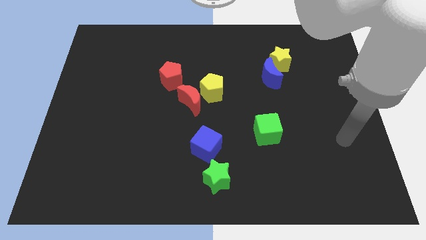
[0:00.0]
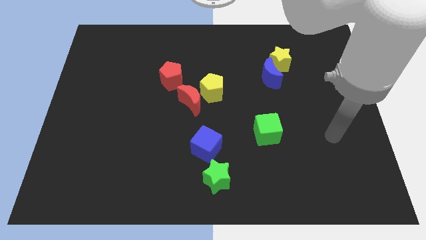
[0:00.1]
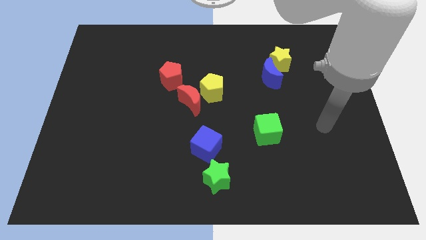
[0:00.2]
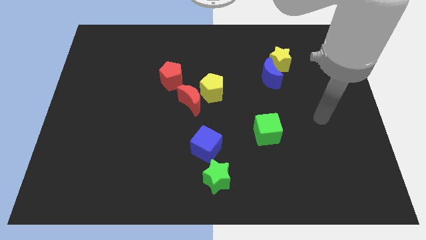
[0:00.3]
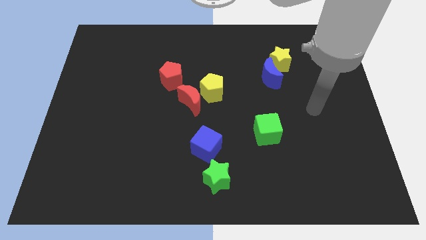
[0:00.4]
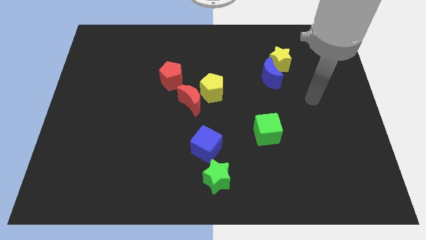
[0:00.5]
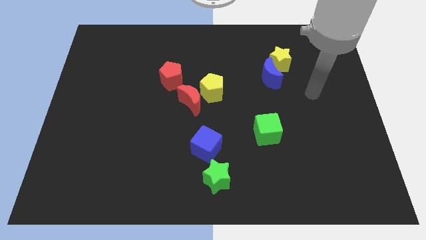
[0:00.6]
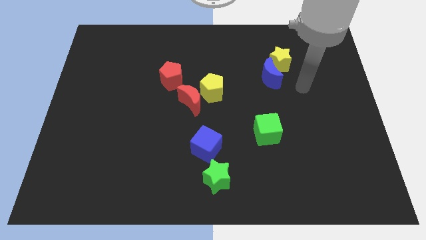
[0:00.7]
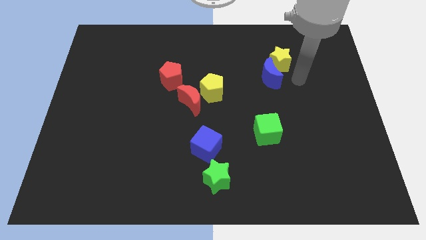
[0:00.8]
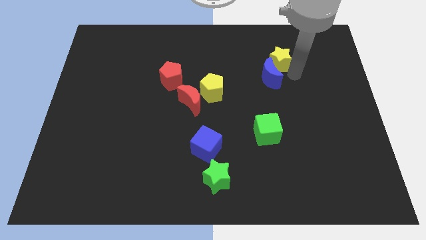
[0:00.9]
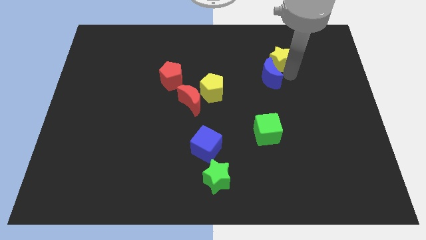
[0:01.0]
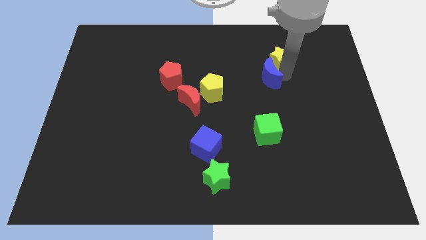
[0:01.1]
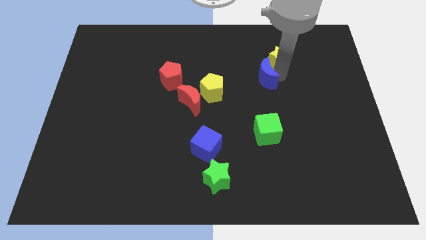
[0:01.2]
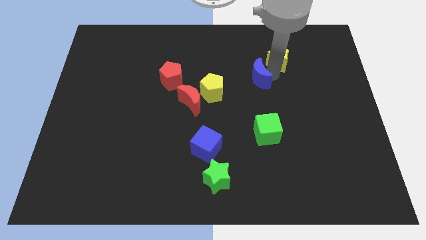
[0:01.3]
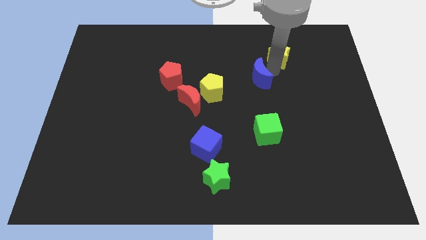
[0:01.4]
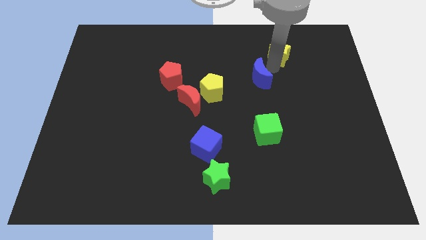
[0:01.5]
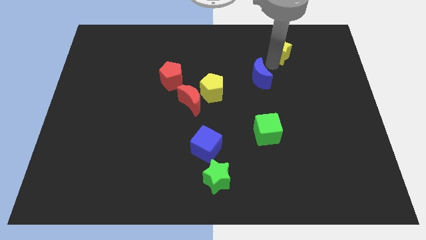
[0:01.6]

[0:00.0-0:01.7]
pull the blue moon apart from the yellow star

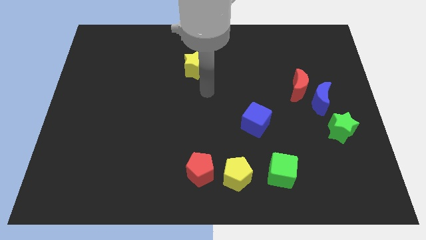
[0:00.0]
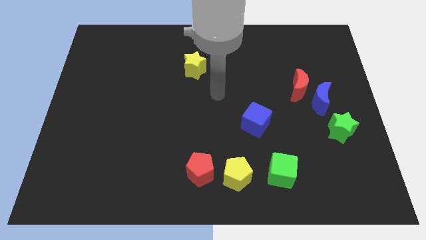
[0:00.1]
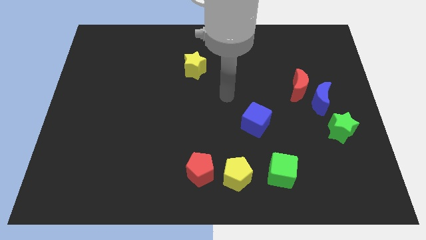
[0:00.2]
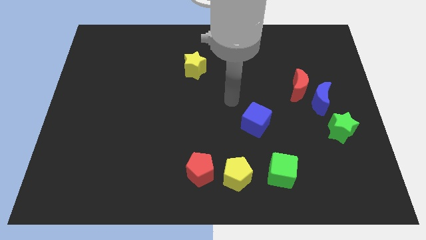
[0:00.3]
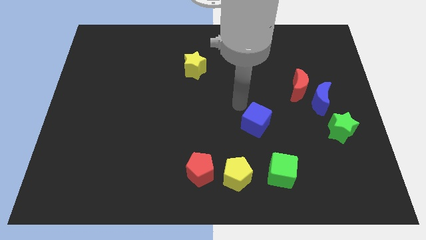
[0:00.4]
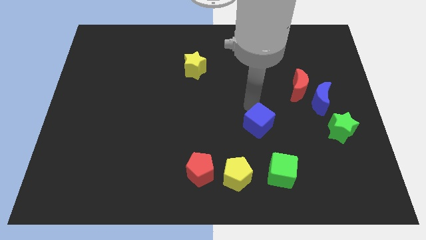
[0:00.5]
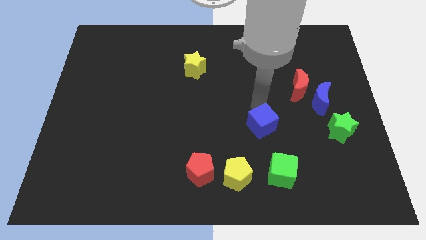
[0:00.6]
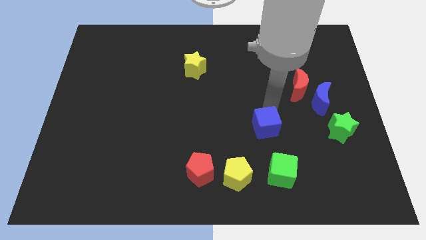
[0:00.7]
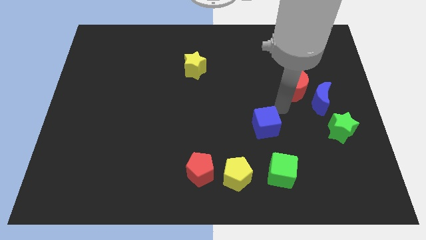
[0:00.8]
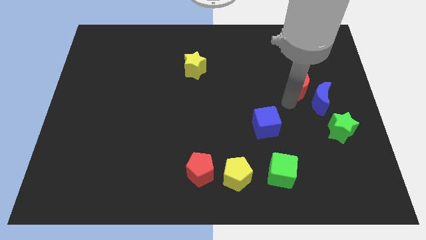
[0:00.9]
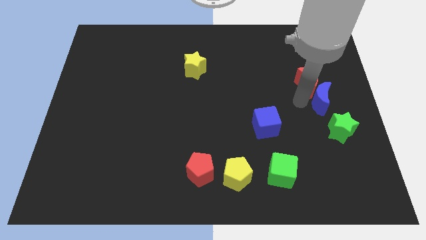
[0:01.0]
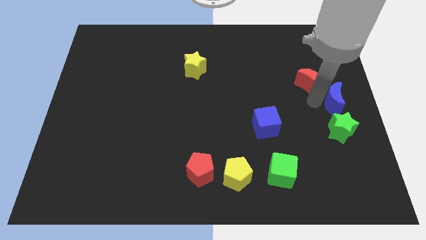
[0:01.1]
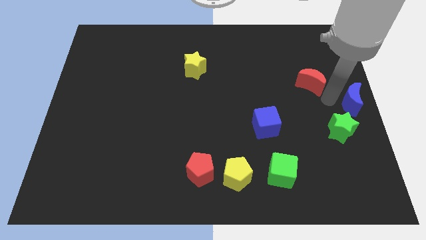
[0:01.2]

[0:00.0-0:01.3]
pull the red moon apart from the blue moon

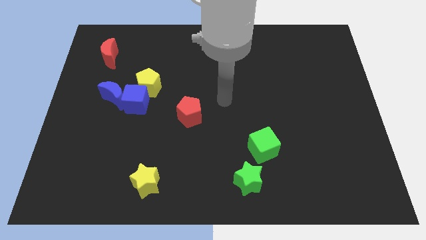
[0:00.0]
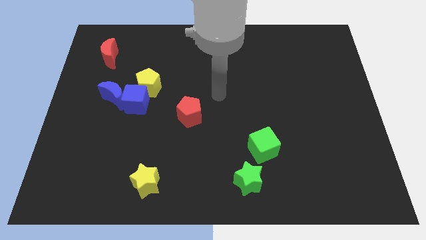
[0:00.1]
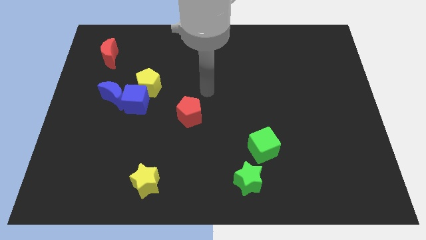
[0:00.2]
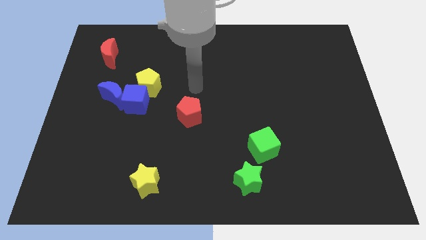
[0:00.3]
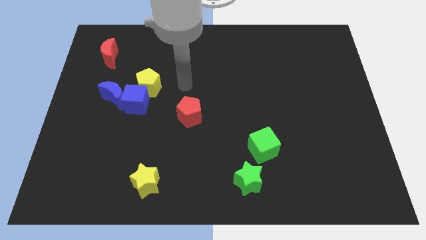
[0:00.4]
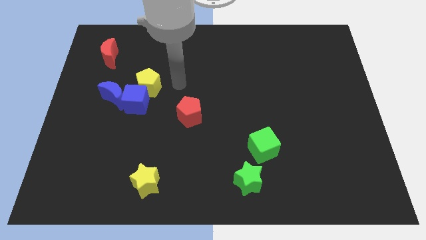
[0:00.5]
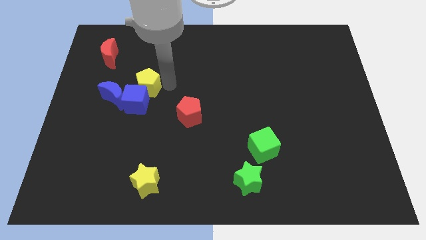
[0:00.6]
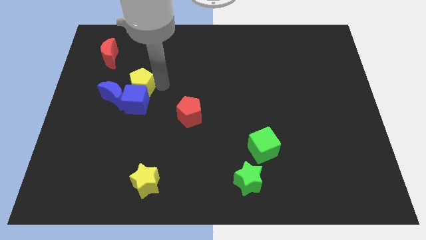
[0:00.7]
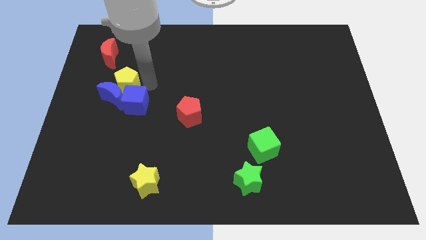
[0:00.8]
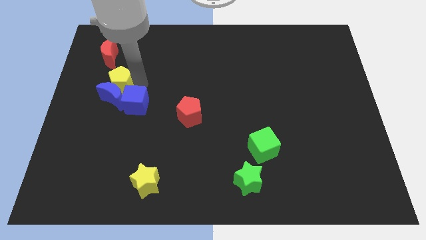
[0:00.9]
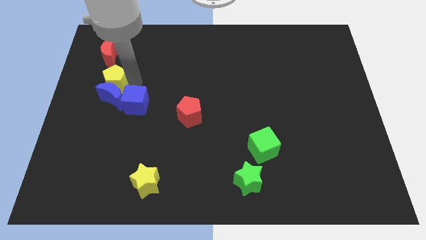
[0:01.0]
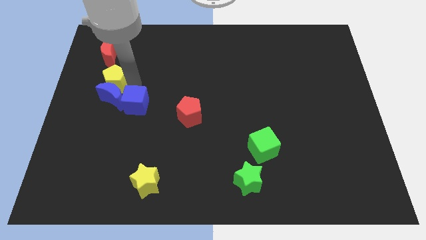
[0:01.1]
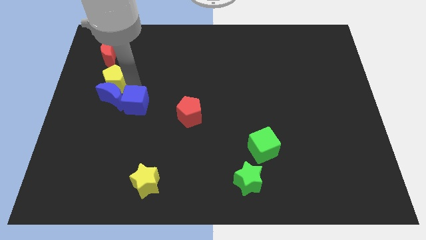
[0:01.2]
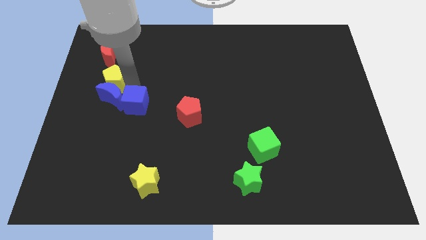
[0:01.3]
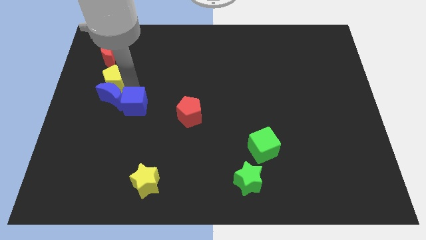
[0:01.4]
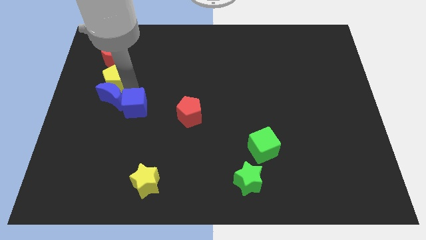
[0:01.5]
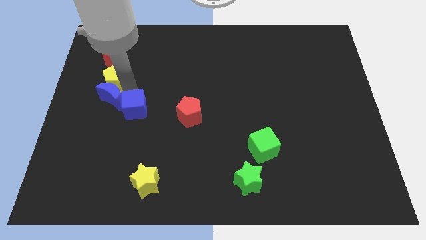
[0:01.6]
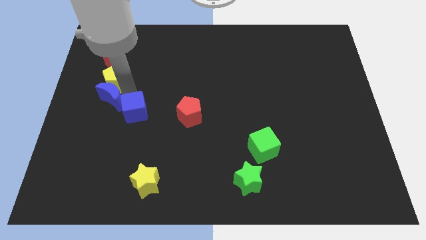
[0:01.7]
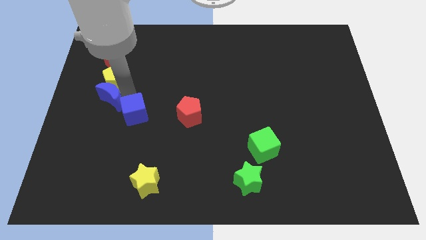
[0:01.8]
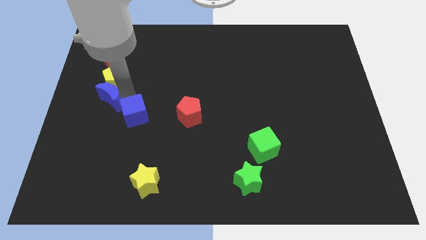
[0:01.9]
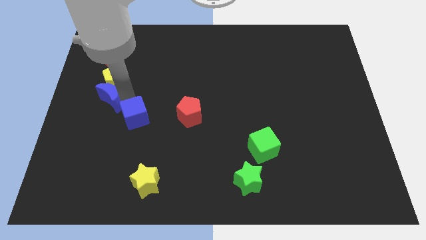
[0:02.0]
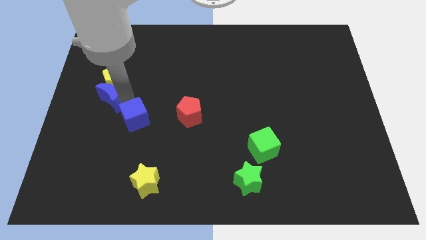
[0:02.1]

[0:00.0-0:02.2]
separate the blue cube from the blue moon and yellow pentagon

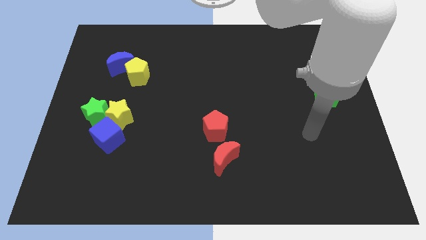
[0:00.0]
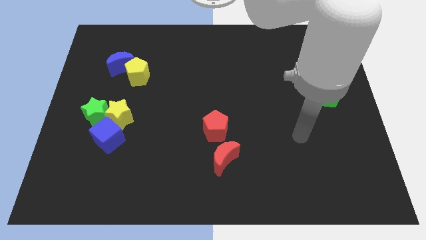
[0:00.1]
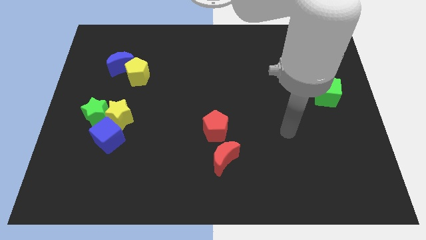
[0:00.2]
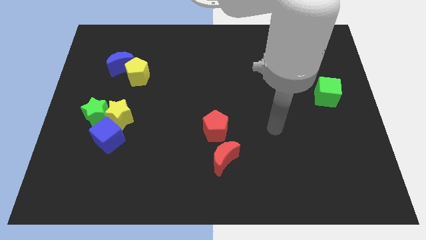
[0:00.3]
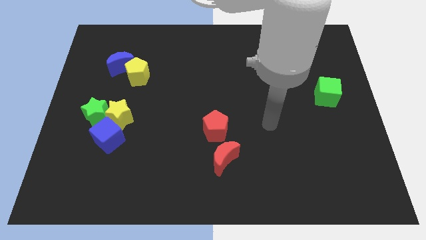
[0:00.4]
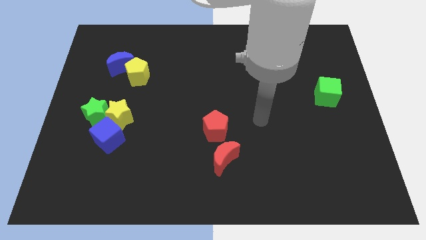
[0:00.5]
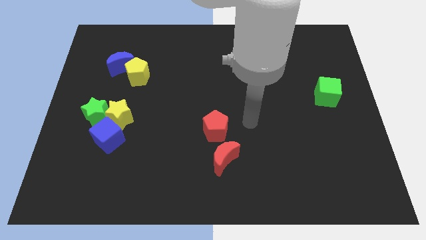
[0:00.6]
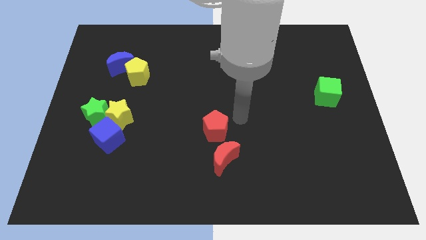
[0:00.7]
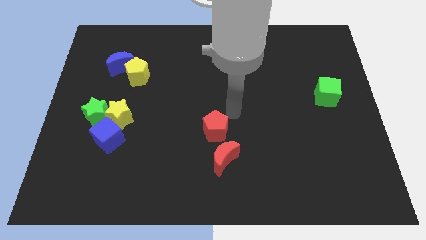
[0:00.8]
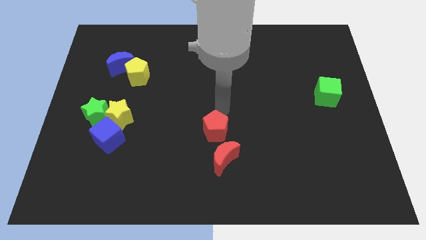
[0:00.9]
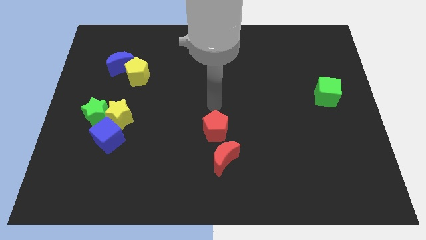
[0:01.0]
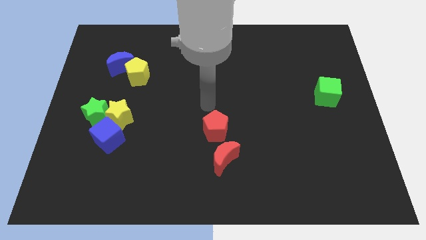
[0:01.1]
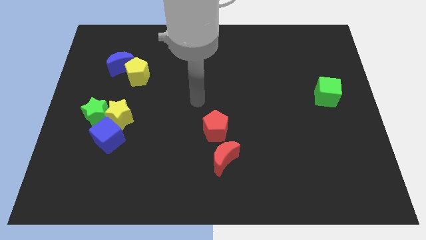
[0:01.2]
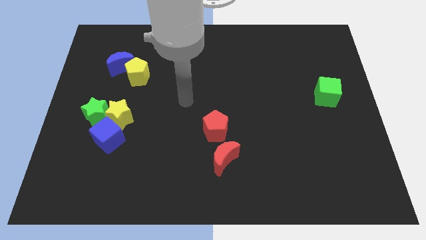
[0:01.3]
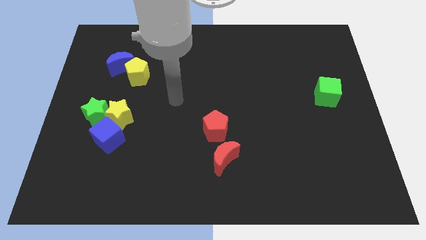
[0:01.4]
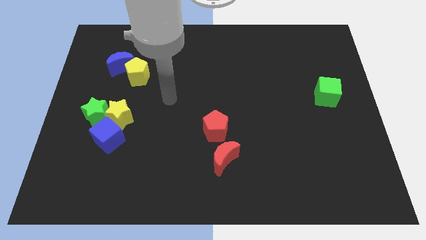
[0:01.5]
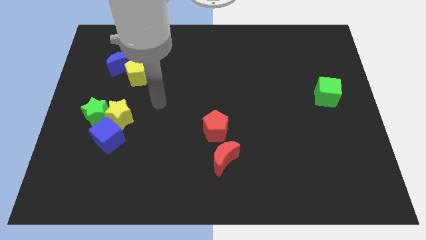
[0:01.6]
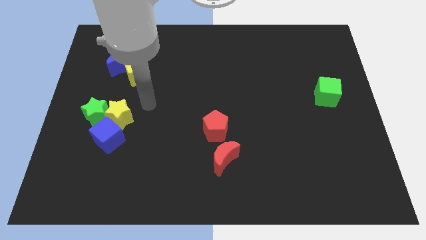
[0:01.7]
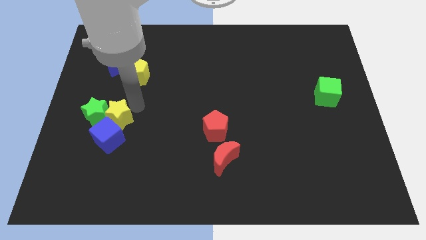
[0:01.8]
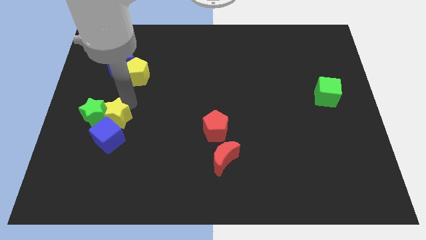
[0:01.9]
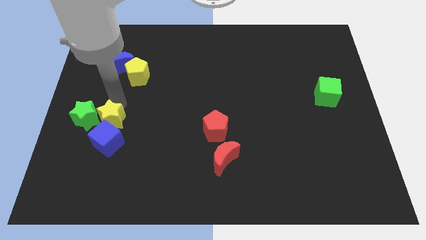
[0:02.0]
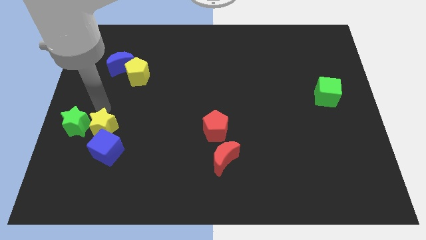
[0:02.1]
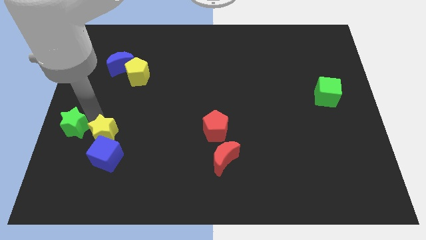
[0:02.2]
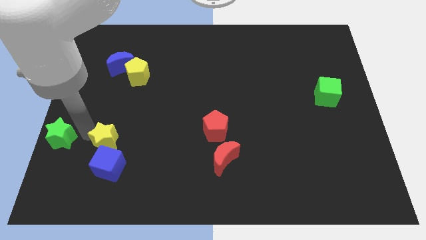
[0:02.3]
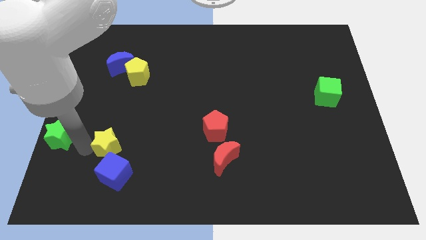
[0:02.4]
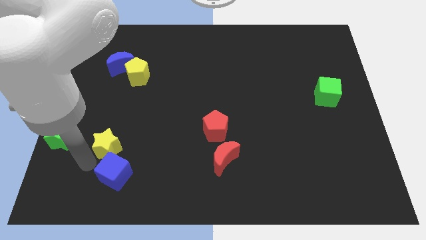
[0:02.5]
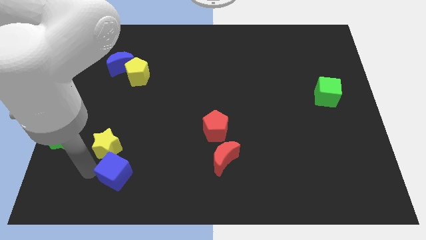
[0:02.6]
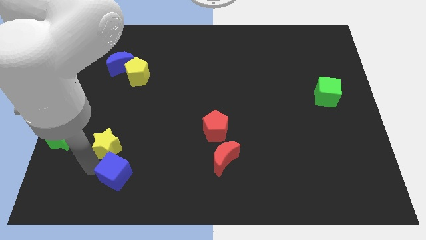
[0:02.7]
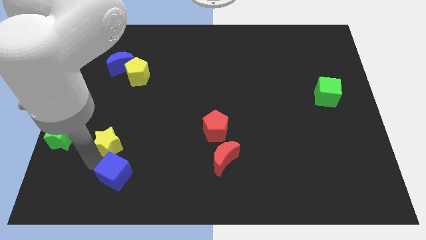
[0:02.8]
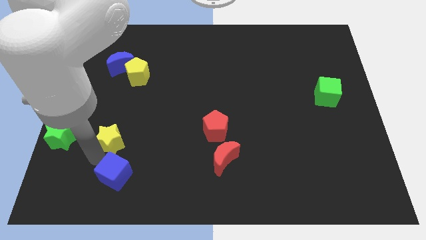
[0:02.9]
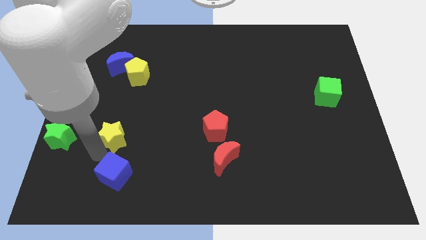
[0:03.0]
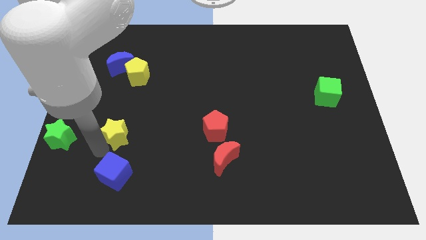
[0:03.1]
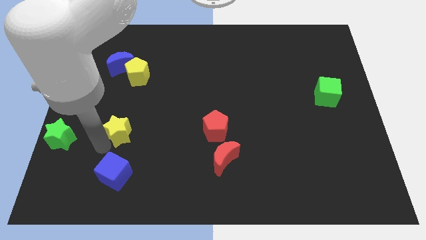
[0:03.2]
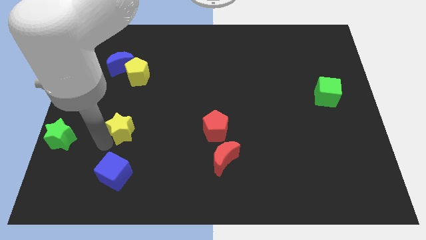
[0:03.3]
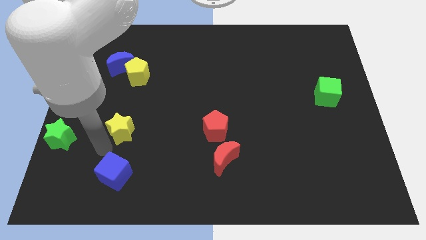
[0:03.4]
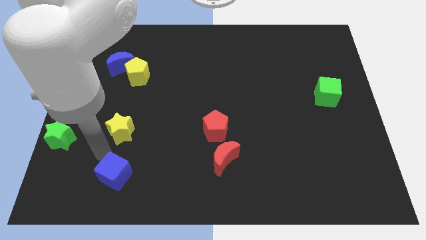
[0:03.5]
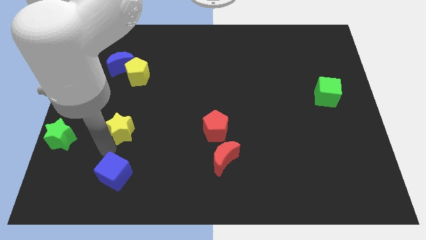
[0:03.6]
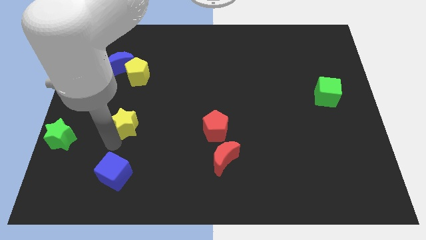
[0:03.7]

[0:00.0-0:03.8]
move the yellow star away from the green star and blue cube

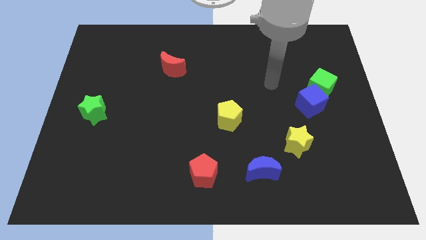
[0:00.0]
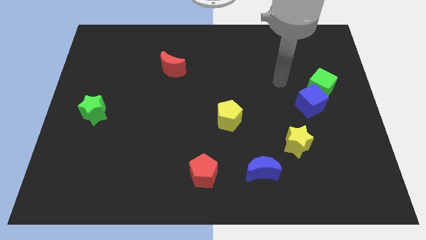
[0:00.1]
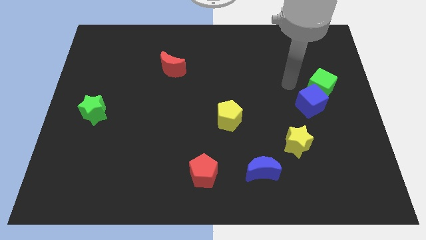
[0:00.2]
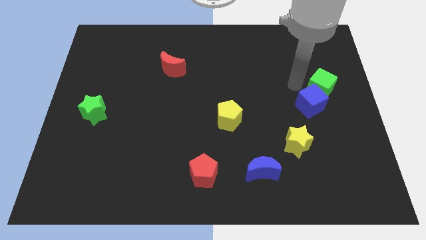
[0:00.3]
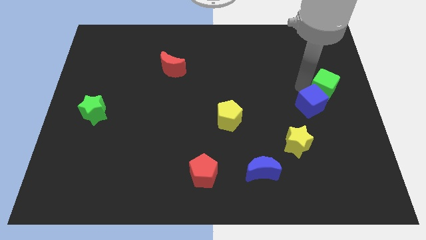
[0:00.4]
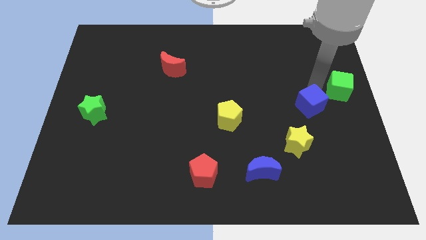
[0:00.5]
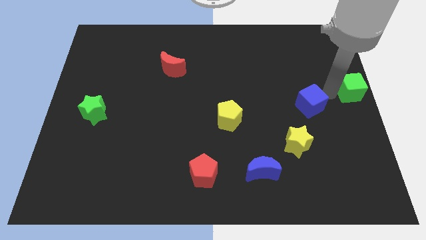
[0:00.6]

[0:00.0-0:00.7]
separate the blue cube from the green cube
